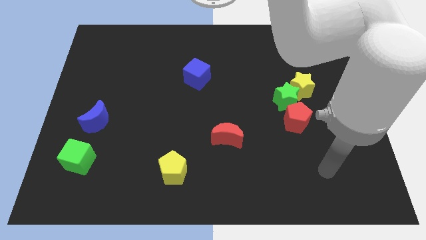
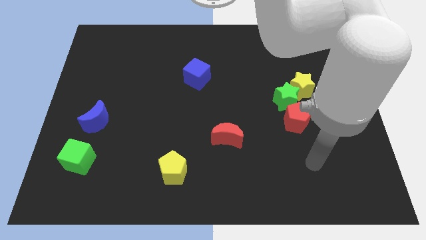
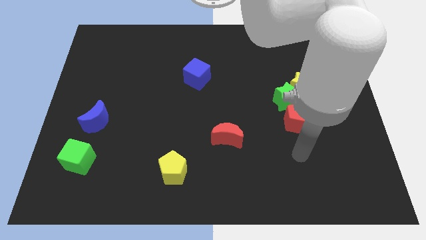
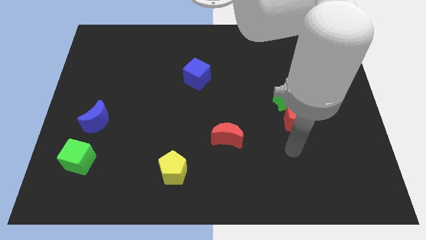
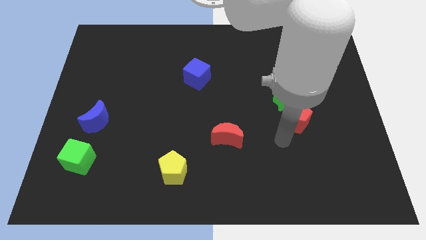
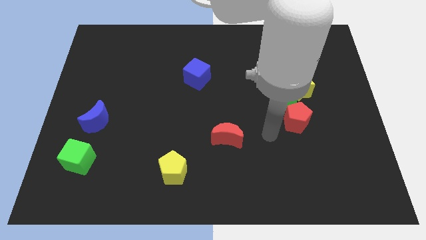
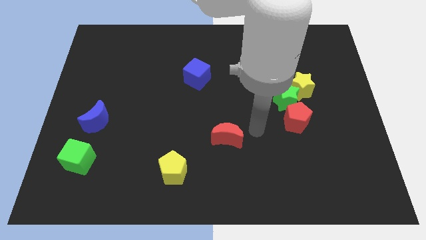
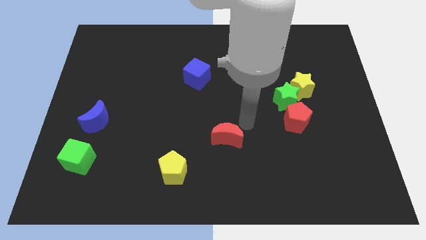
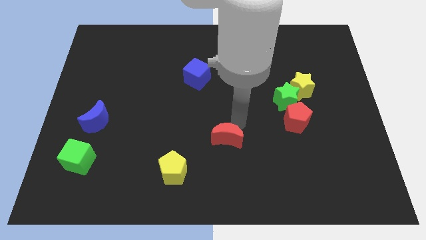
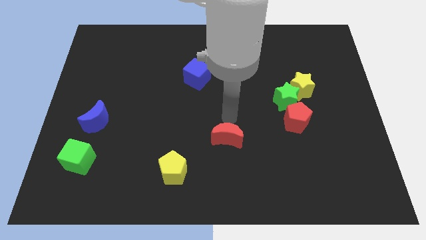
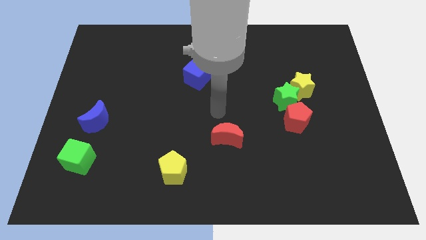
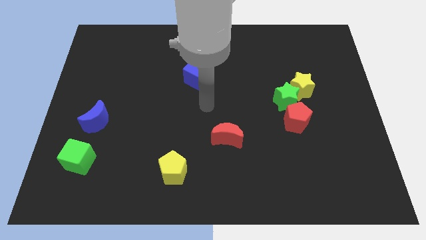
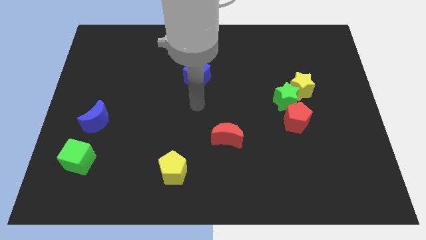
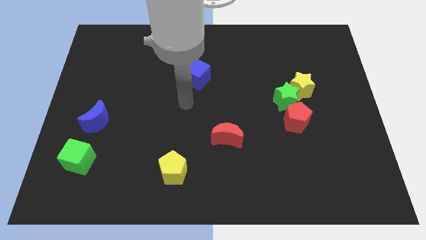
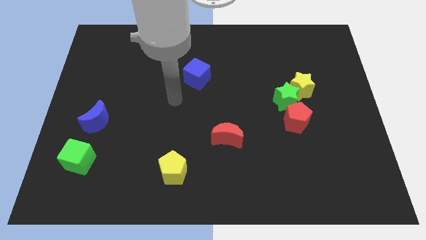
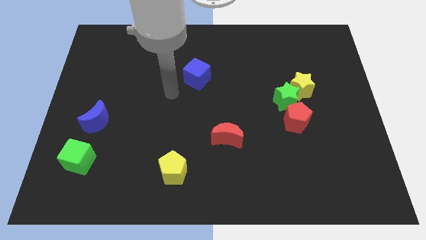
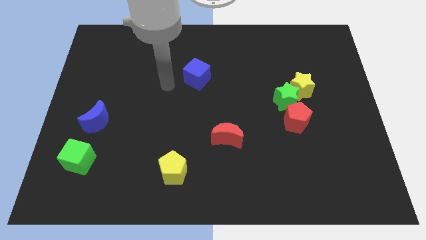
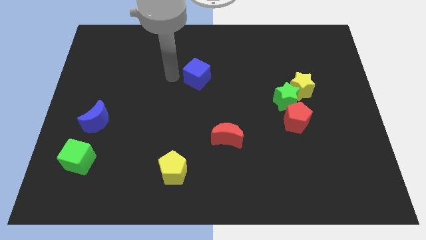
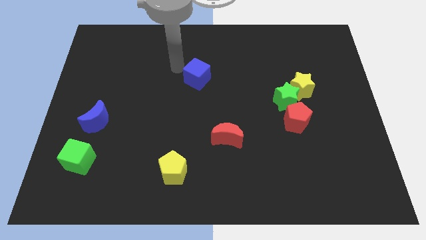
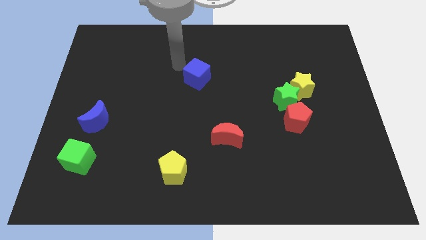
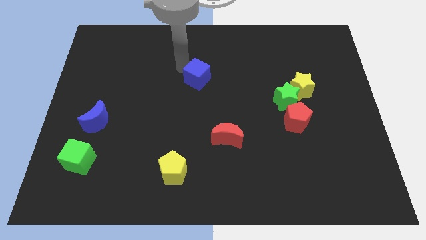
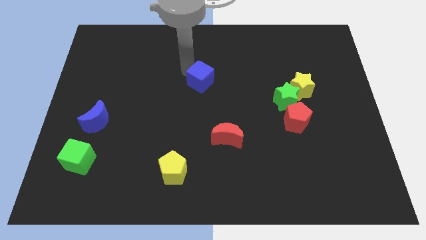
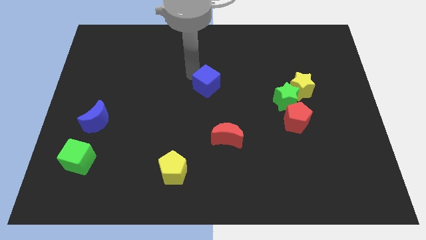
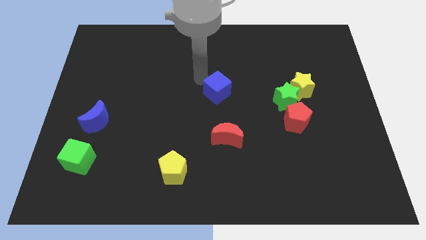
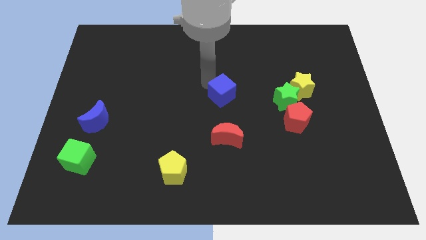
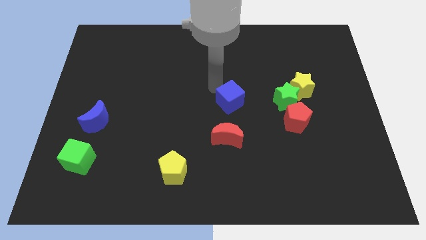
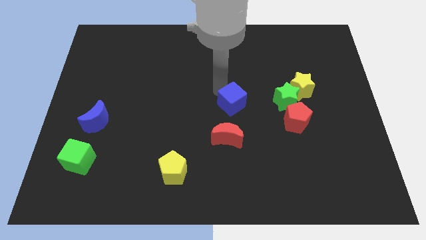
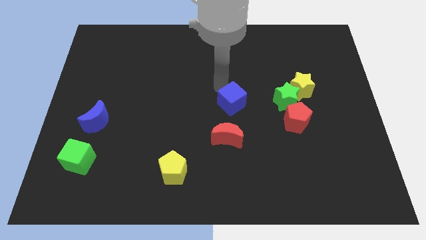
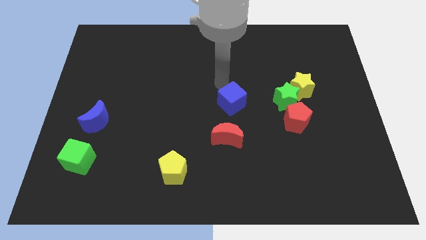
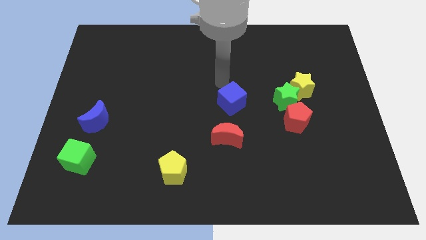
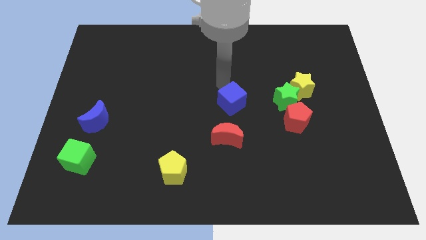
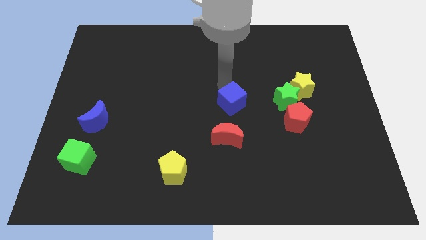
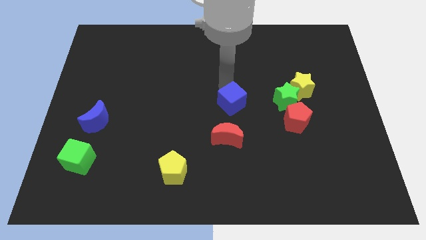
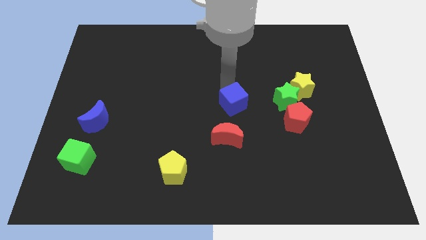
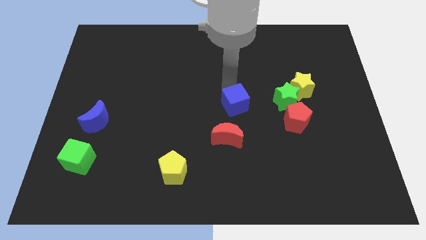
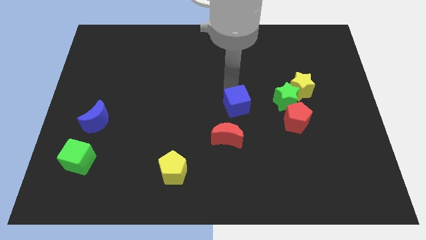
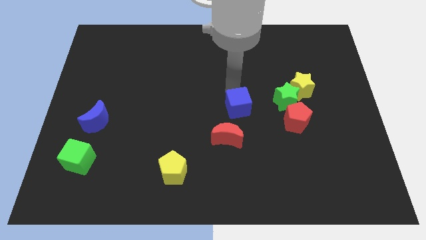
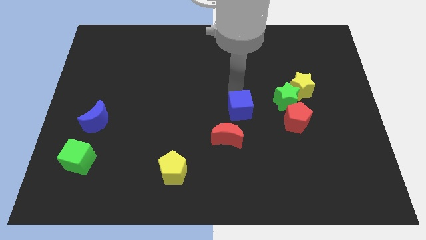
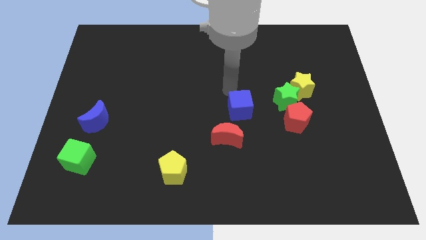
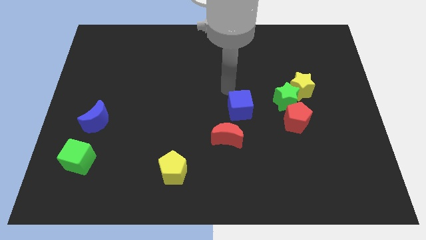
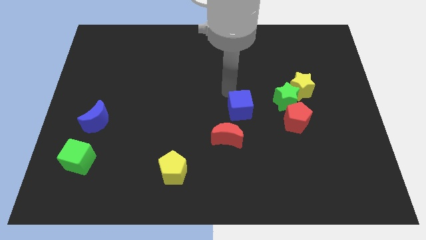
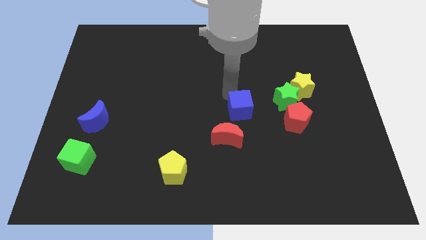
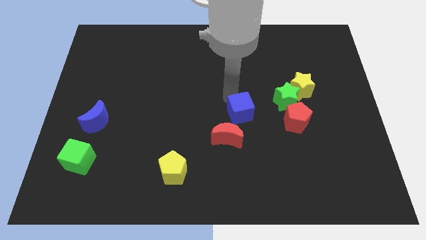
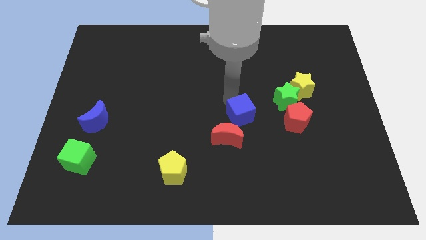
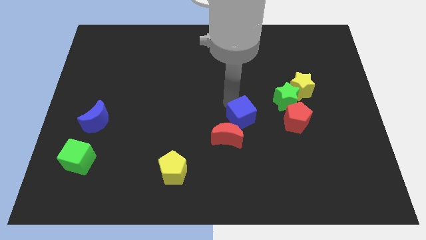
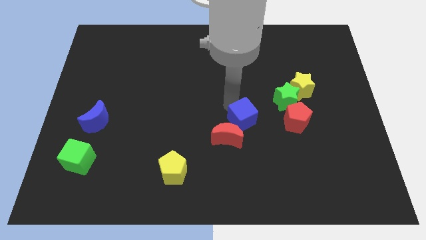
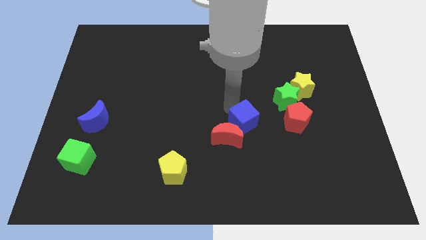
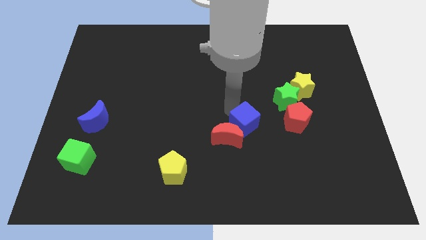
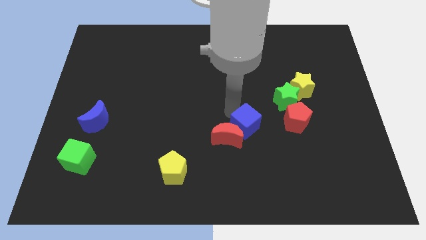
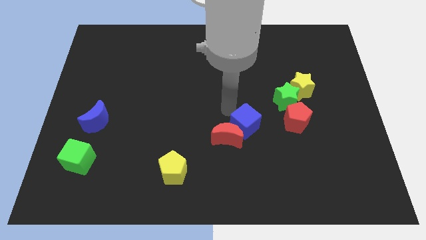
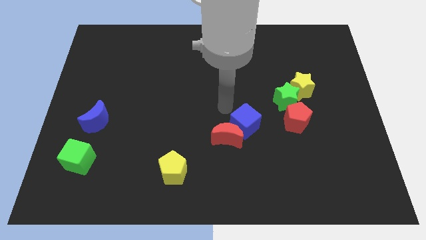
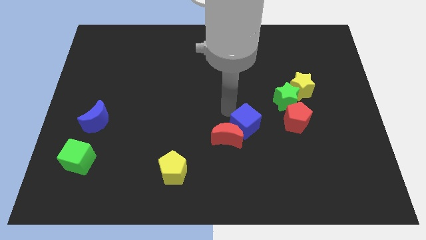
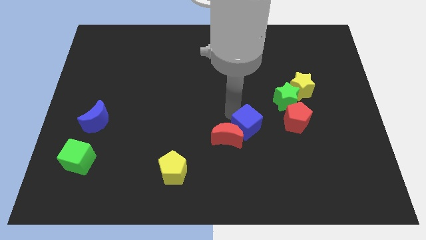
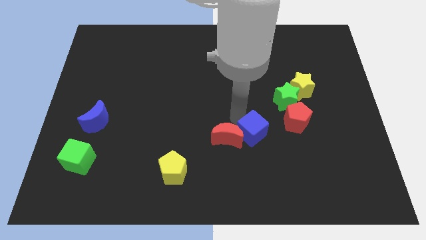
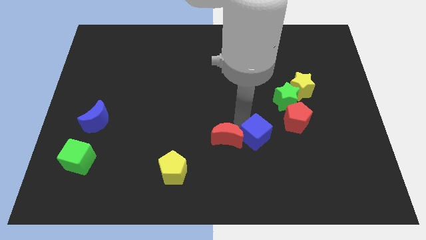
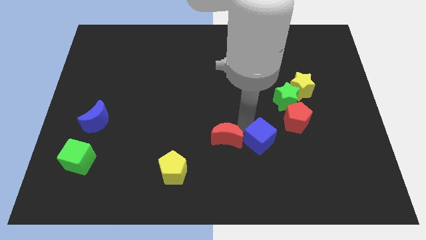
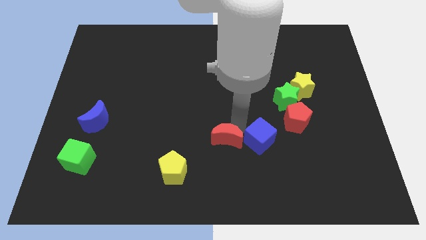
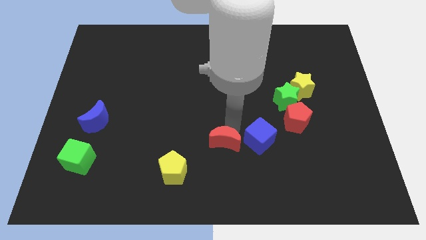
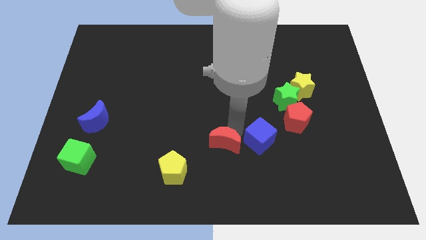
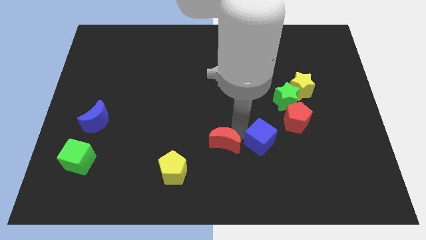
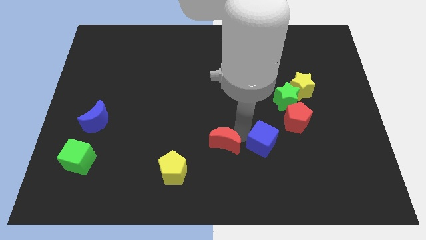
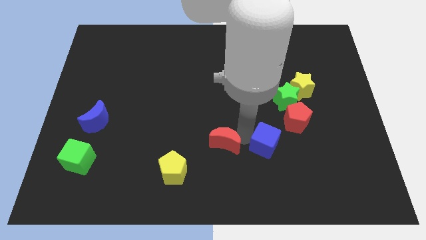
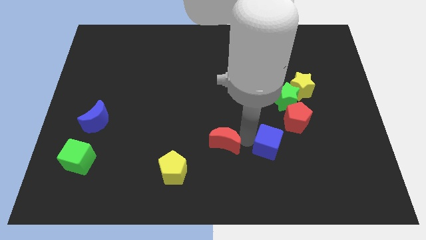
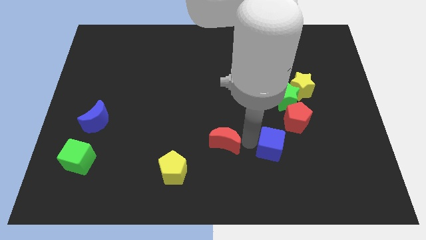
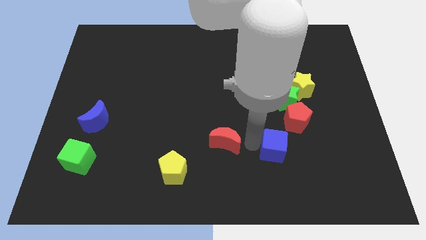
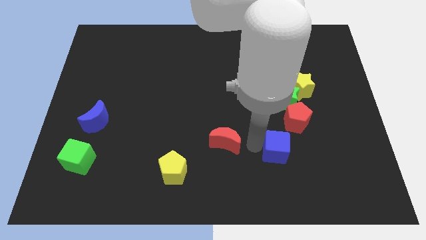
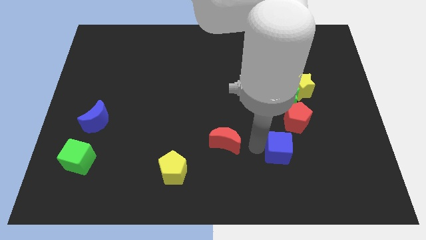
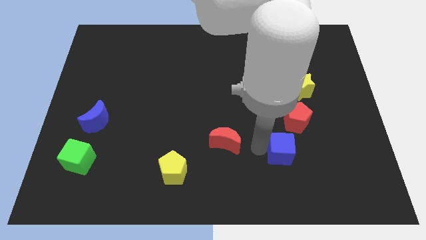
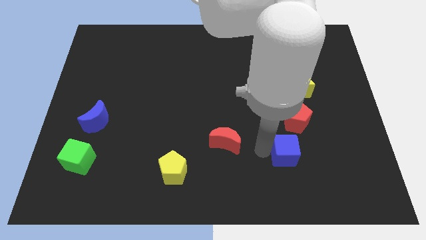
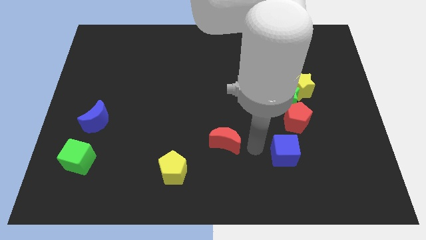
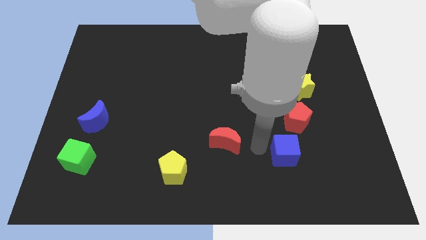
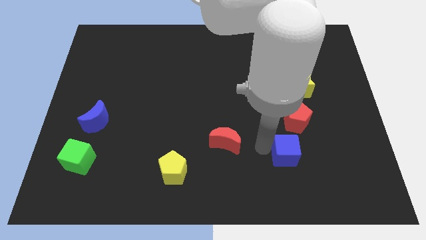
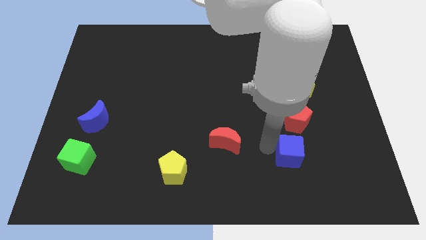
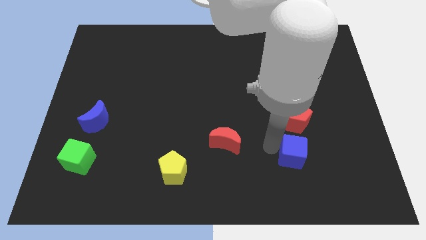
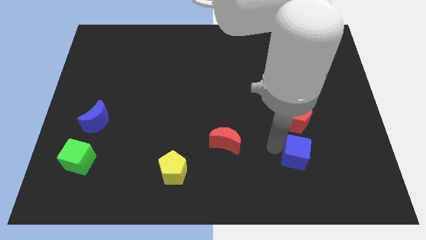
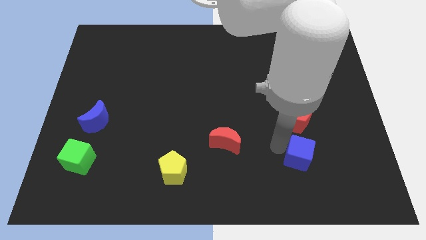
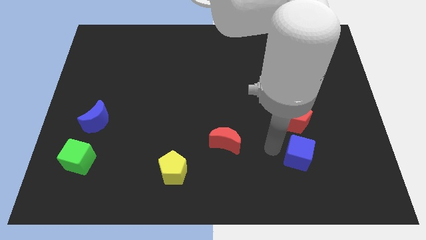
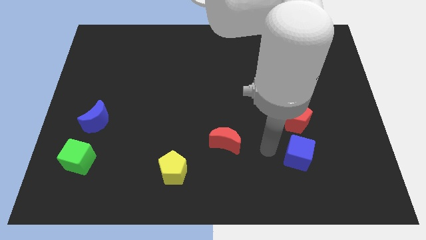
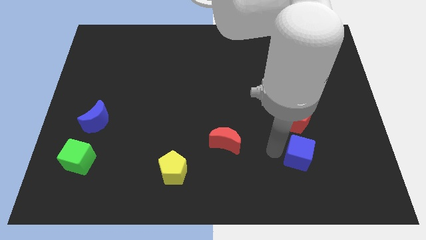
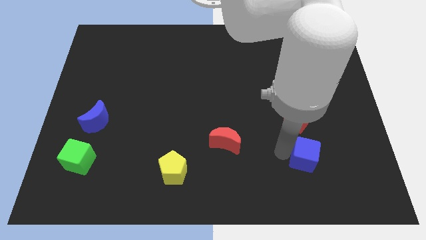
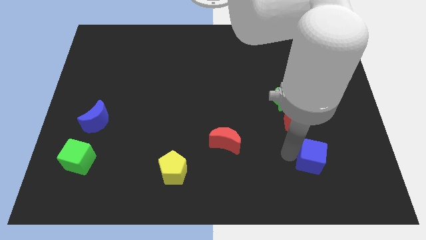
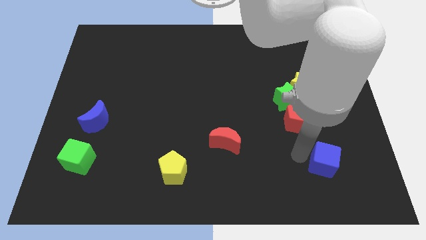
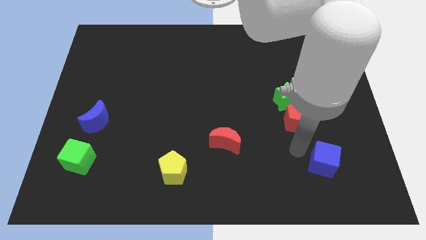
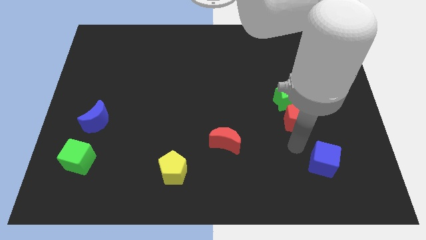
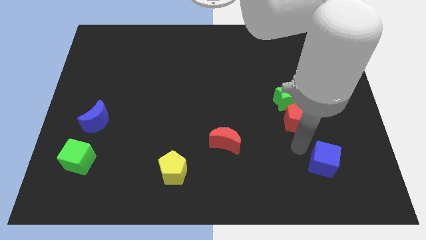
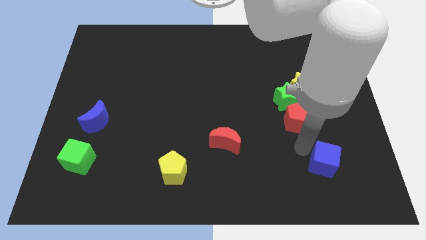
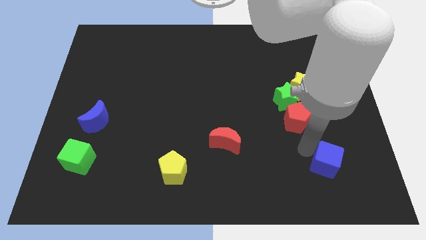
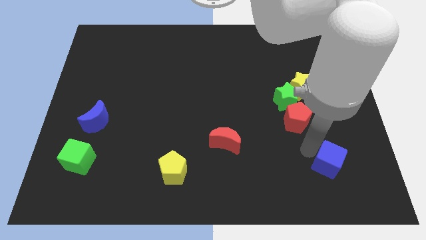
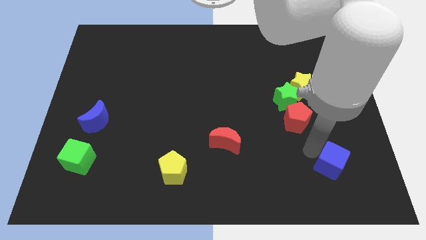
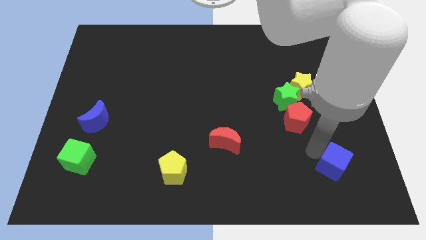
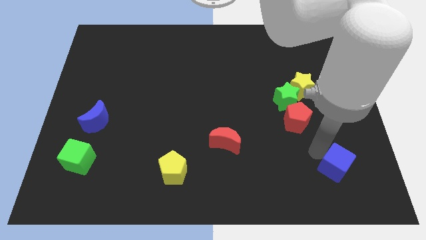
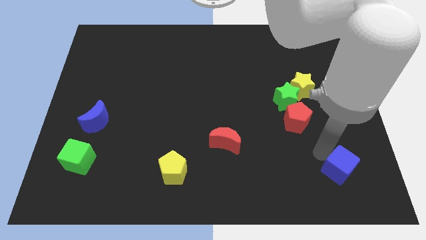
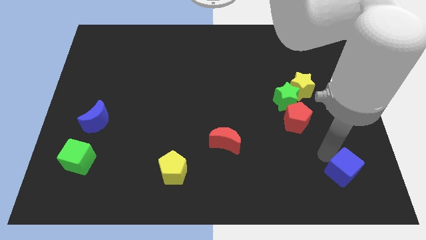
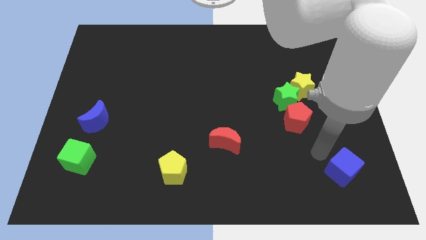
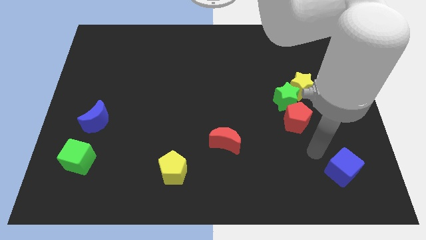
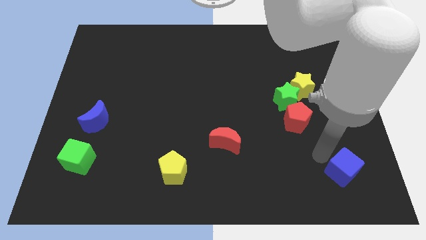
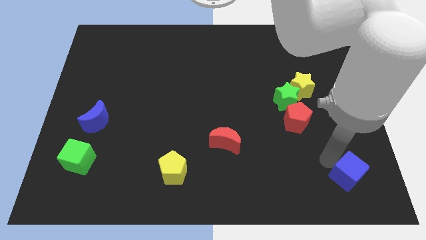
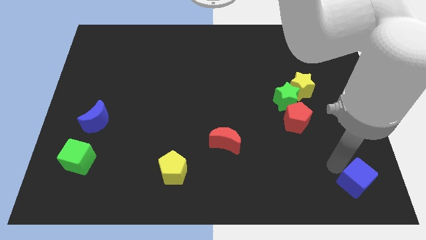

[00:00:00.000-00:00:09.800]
push the blue cube to the bottom right
